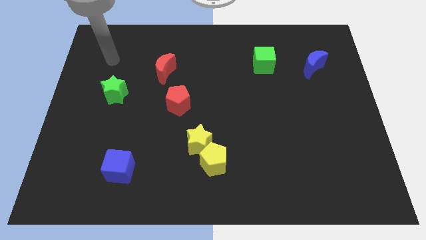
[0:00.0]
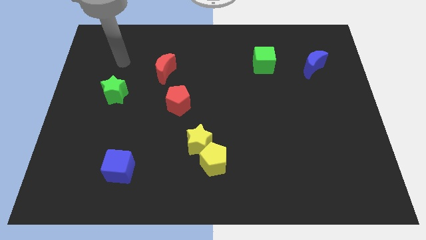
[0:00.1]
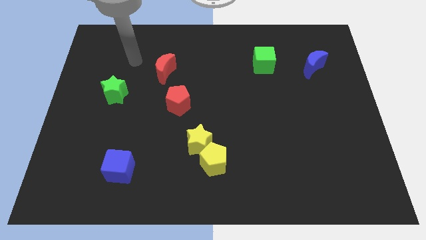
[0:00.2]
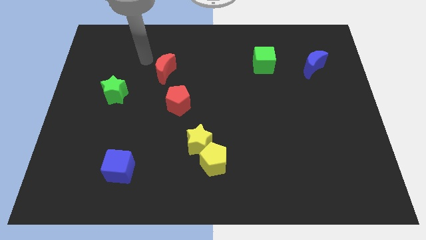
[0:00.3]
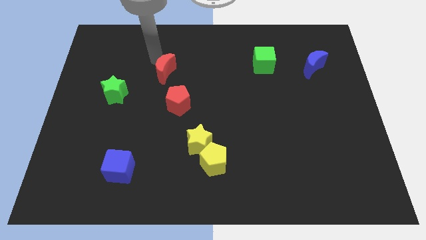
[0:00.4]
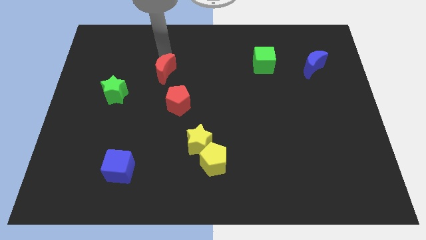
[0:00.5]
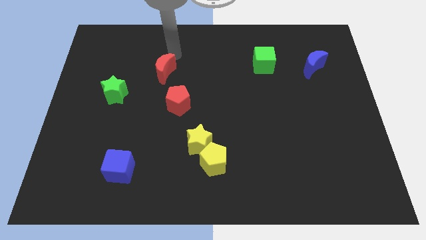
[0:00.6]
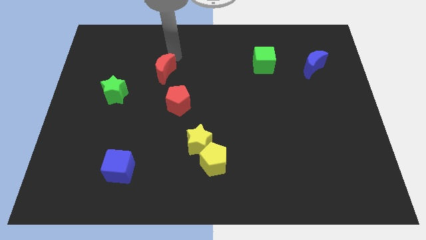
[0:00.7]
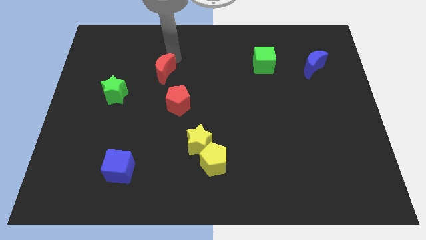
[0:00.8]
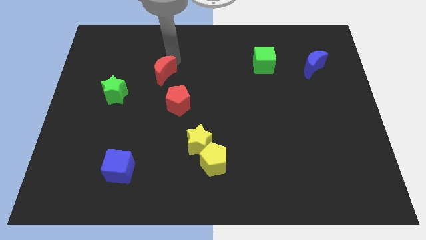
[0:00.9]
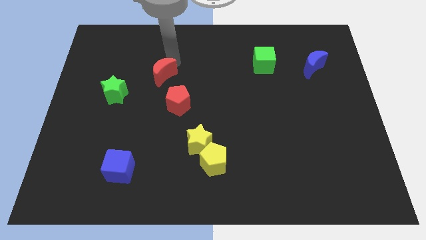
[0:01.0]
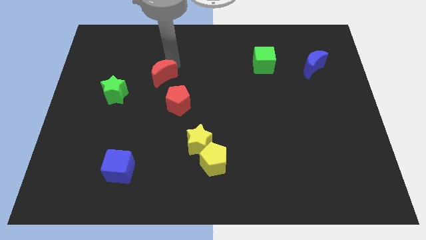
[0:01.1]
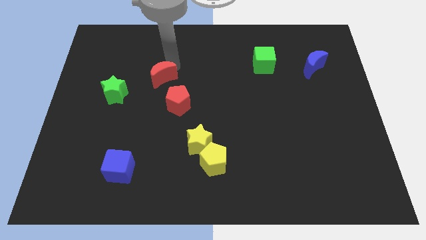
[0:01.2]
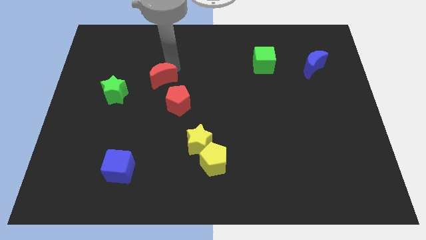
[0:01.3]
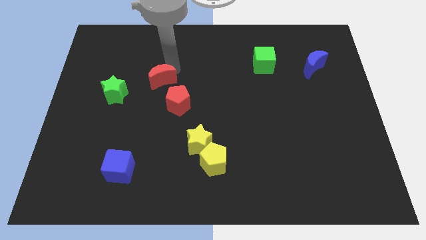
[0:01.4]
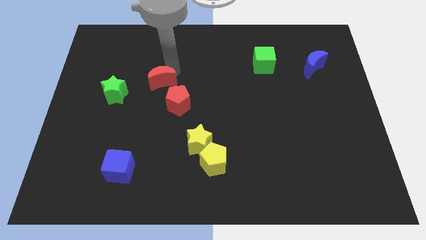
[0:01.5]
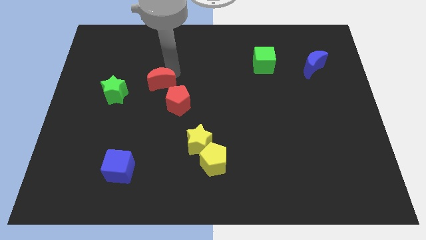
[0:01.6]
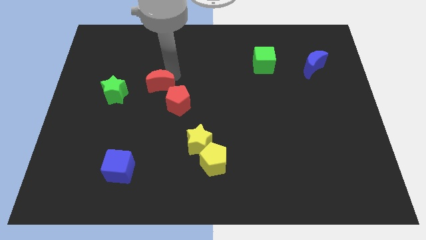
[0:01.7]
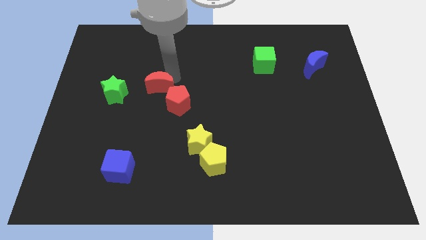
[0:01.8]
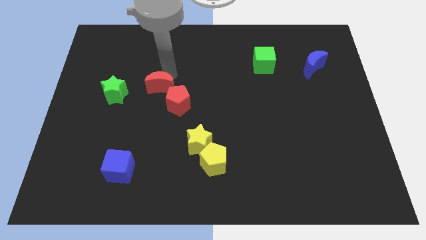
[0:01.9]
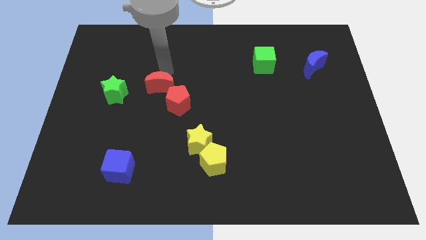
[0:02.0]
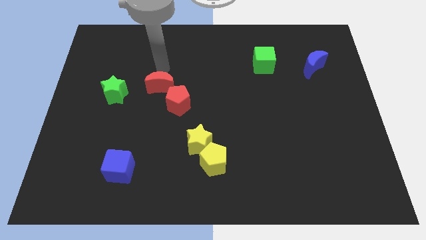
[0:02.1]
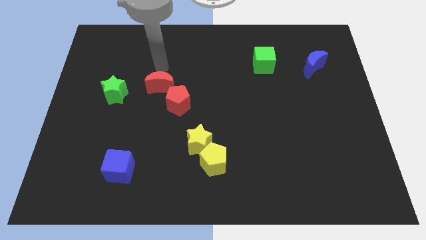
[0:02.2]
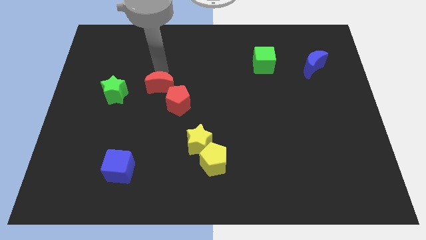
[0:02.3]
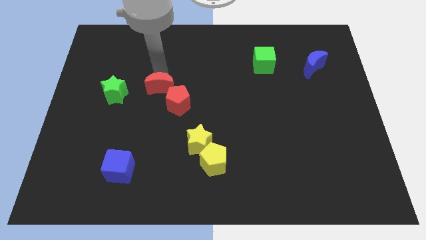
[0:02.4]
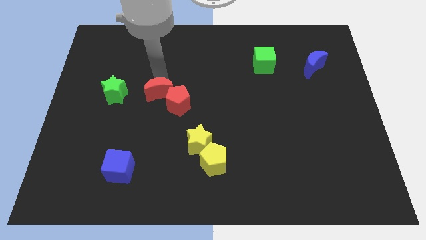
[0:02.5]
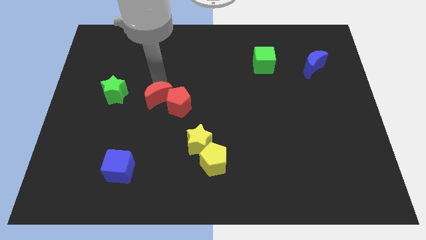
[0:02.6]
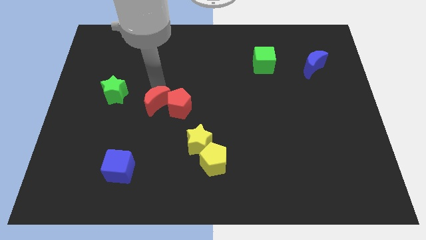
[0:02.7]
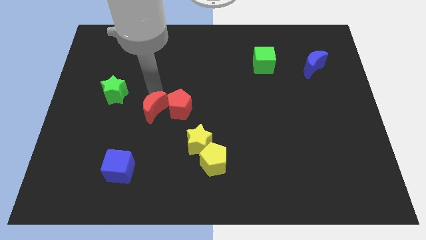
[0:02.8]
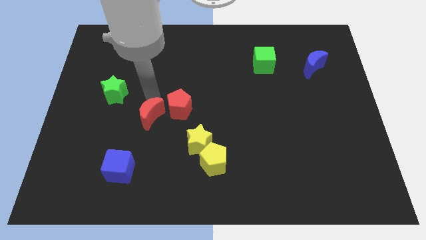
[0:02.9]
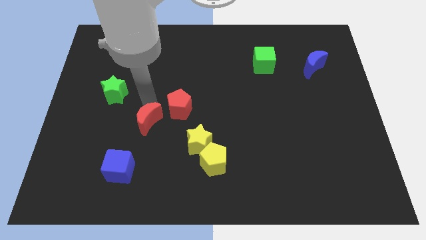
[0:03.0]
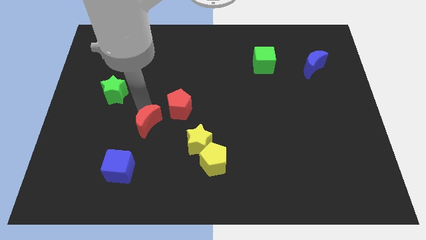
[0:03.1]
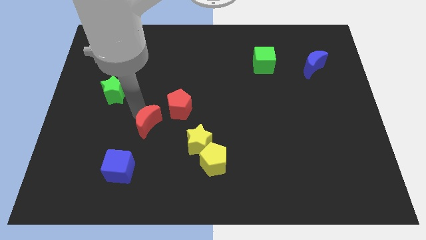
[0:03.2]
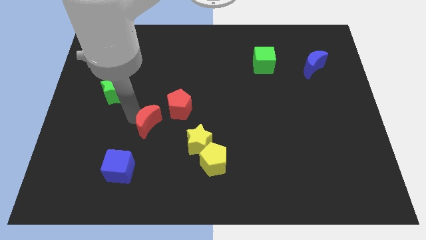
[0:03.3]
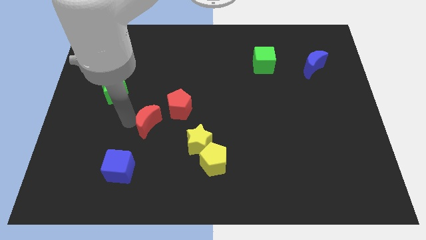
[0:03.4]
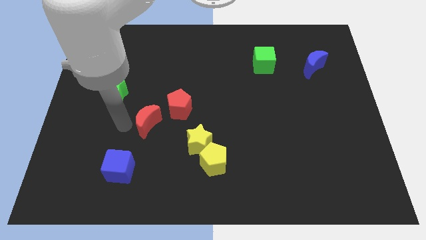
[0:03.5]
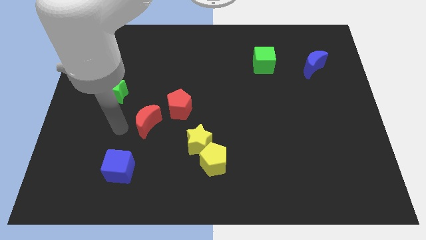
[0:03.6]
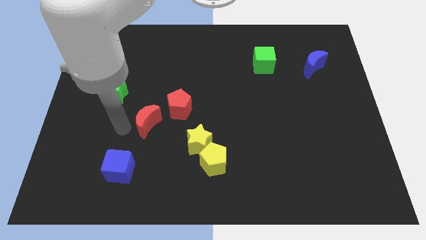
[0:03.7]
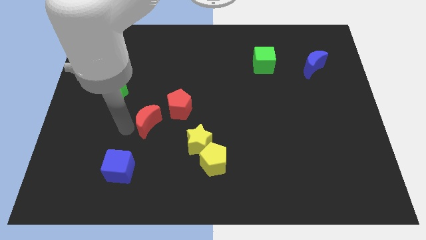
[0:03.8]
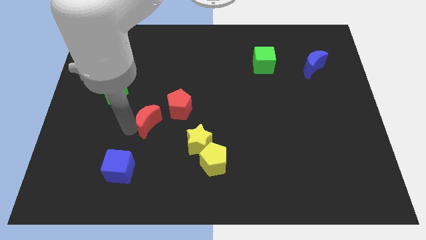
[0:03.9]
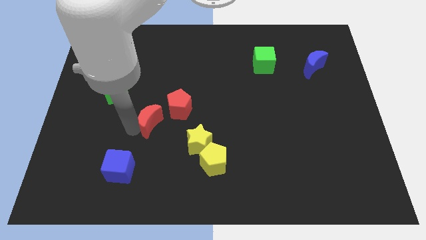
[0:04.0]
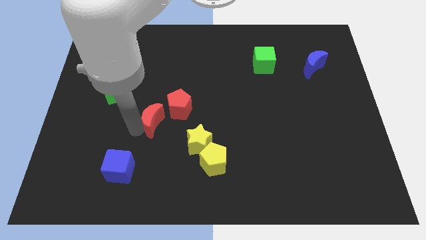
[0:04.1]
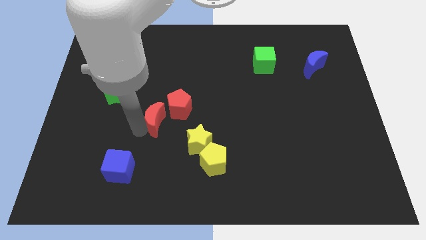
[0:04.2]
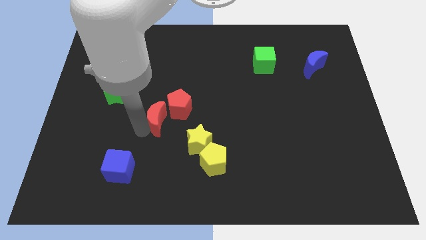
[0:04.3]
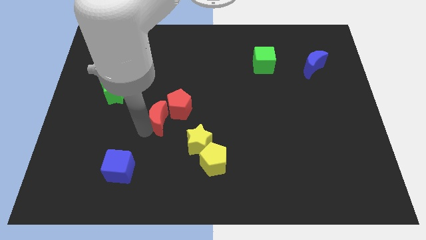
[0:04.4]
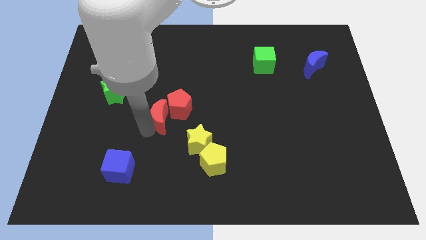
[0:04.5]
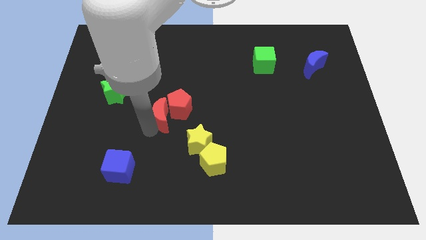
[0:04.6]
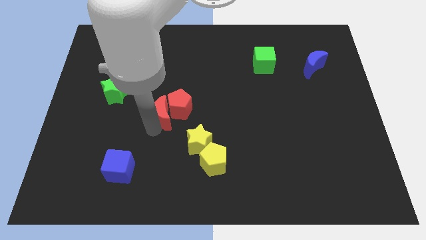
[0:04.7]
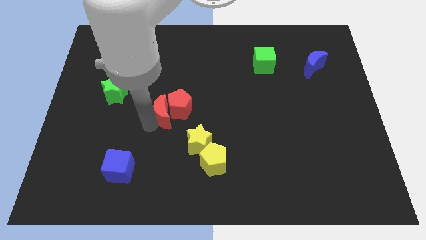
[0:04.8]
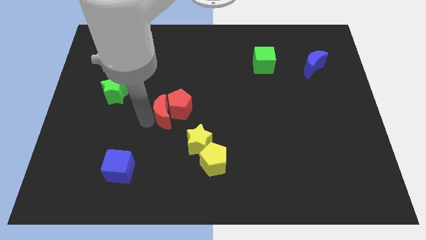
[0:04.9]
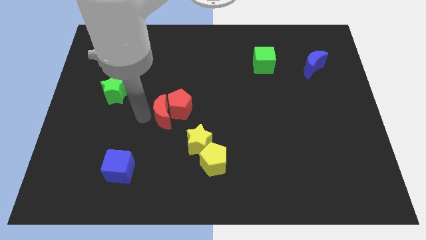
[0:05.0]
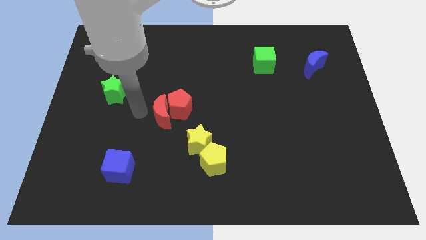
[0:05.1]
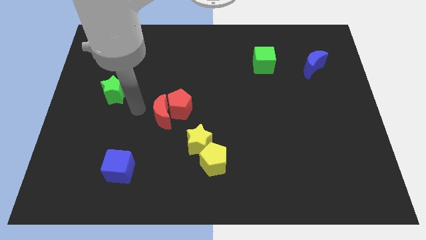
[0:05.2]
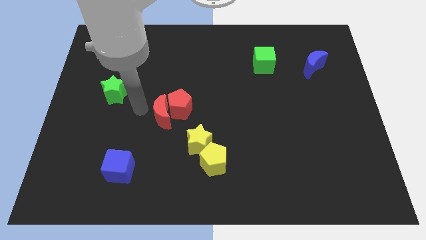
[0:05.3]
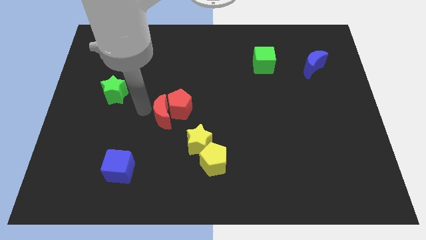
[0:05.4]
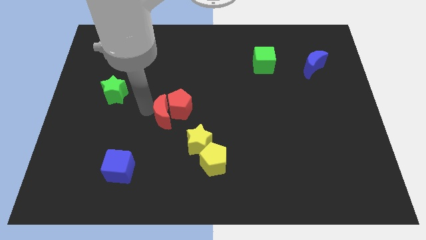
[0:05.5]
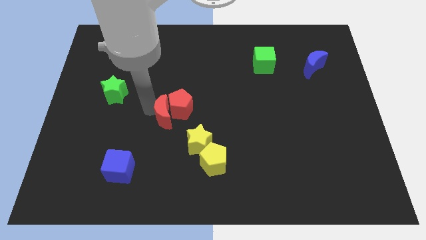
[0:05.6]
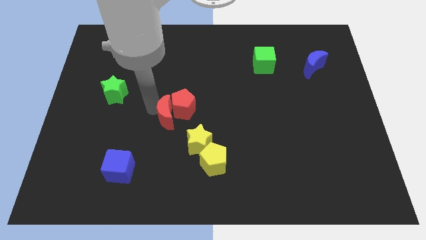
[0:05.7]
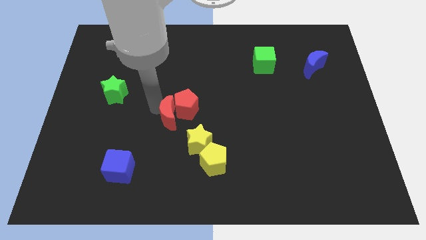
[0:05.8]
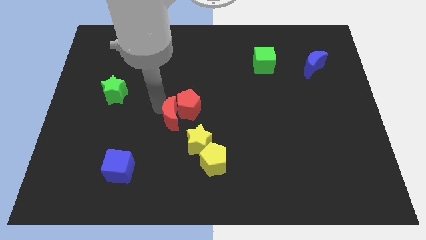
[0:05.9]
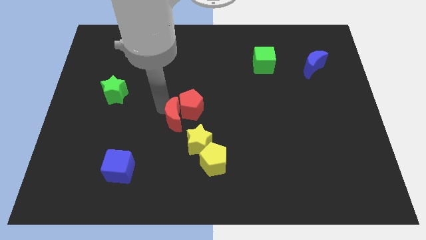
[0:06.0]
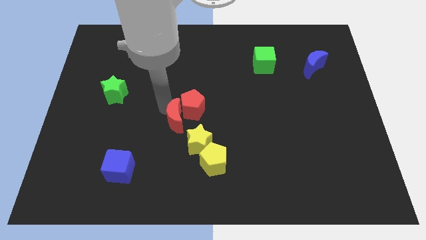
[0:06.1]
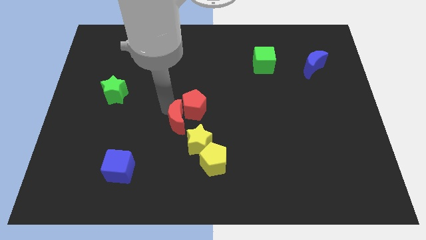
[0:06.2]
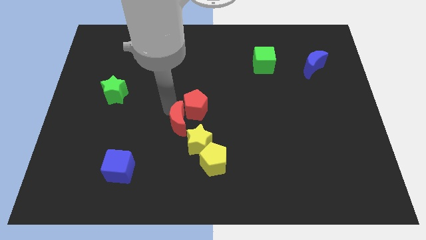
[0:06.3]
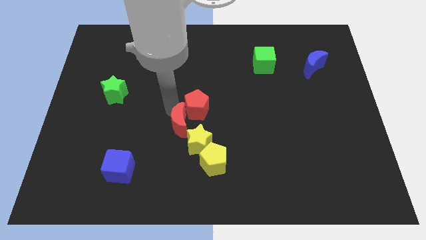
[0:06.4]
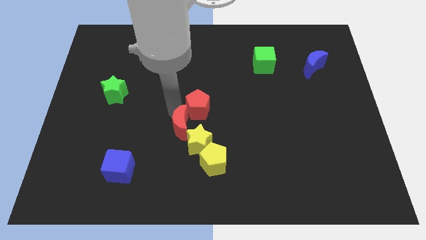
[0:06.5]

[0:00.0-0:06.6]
move the red moon to the yellow star
